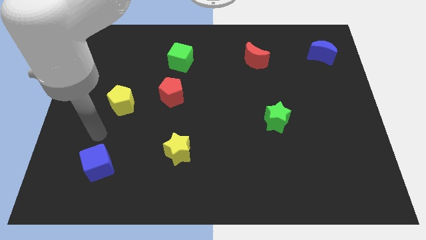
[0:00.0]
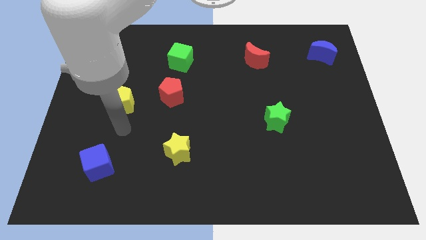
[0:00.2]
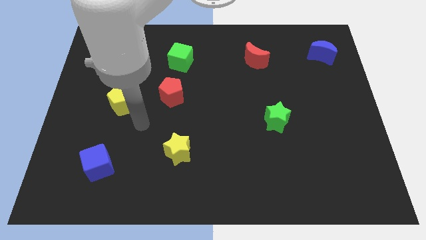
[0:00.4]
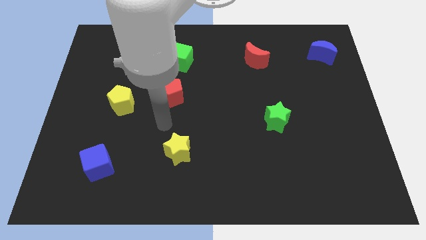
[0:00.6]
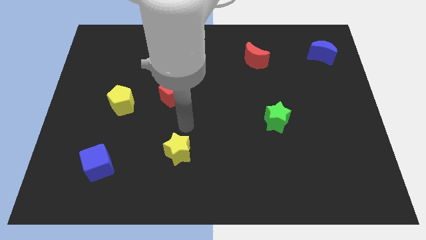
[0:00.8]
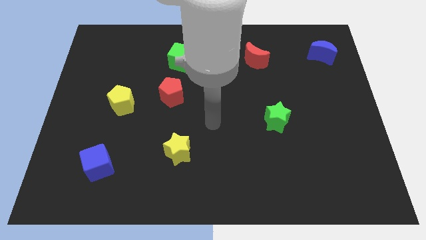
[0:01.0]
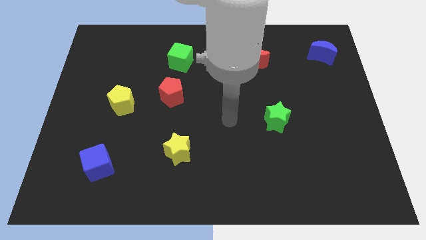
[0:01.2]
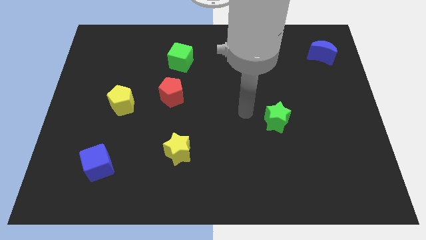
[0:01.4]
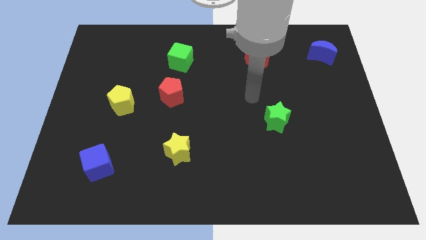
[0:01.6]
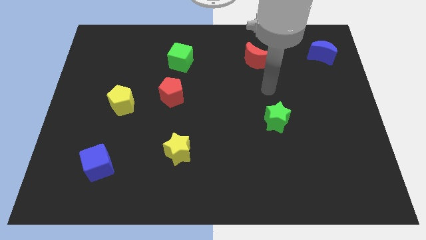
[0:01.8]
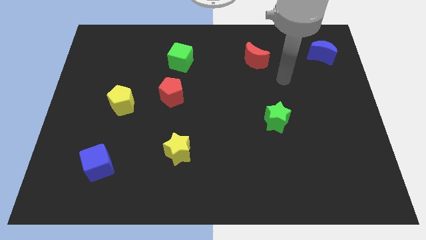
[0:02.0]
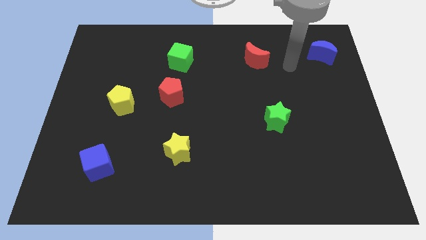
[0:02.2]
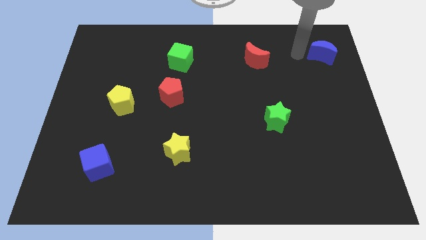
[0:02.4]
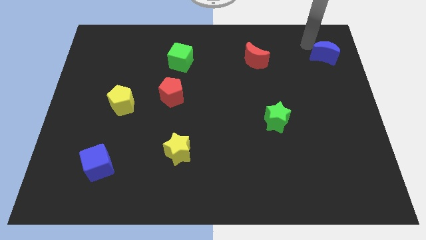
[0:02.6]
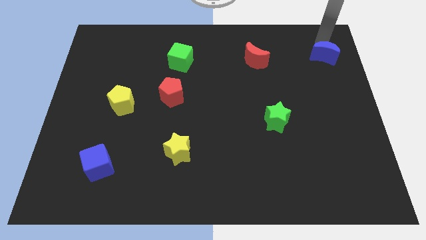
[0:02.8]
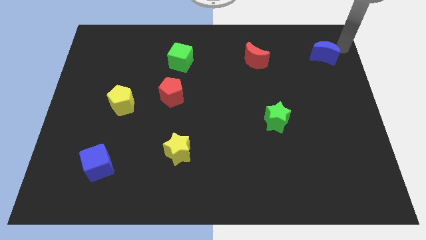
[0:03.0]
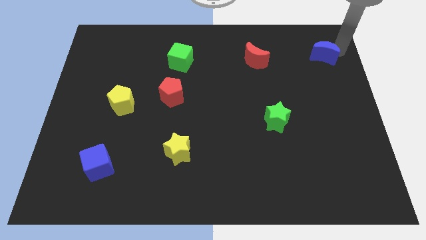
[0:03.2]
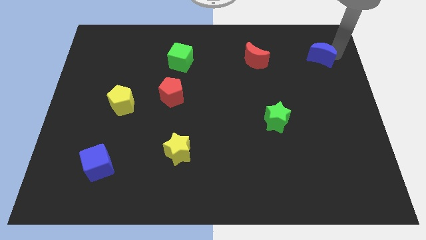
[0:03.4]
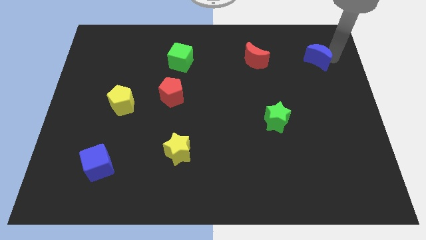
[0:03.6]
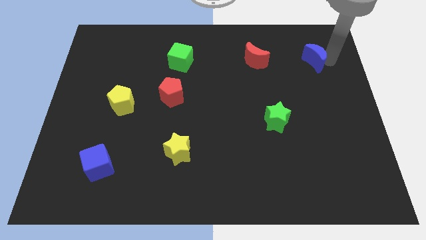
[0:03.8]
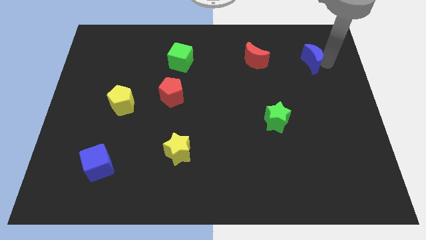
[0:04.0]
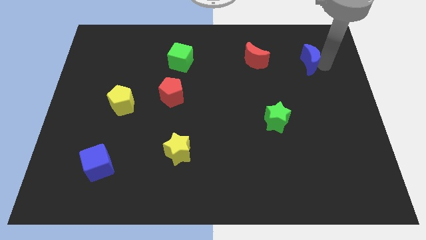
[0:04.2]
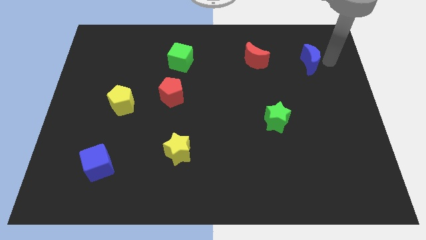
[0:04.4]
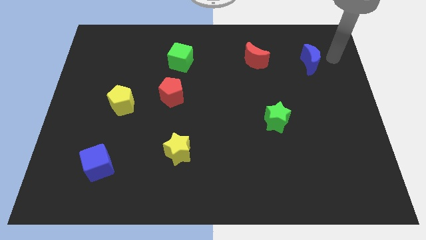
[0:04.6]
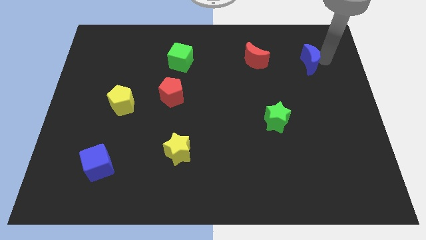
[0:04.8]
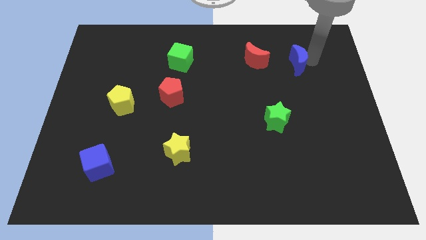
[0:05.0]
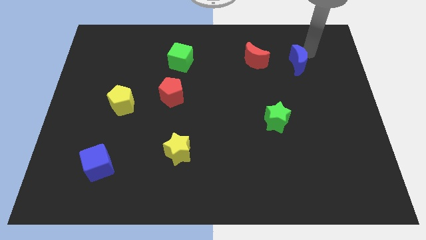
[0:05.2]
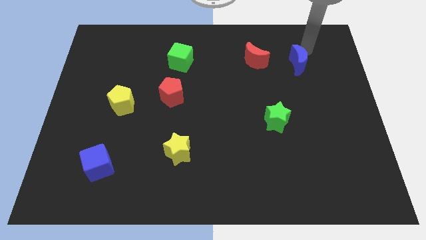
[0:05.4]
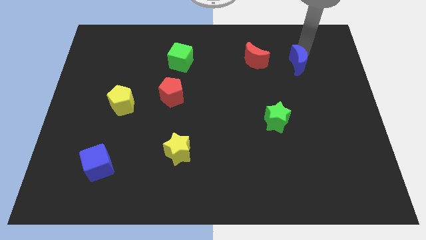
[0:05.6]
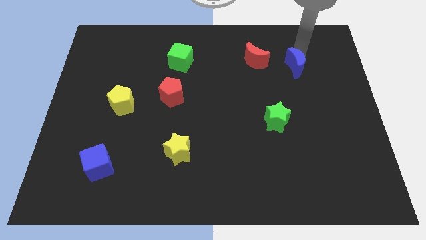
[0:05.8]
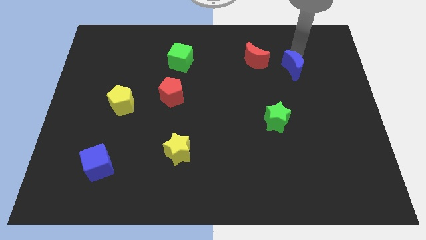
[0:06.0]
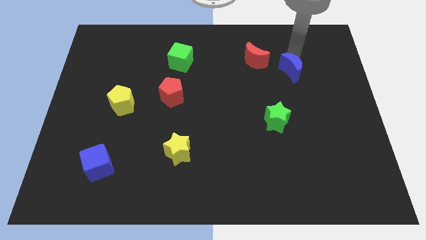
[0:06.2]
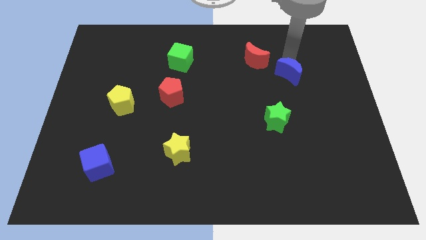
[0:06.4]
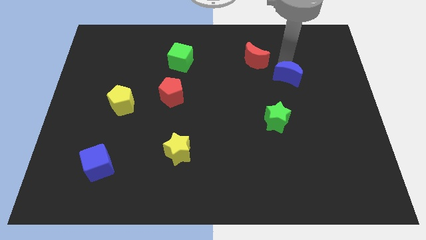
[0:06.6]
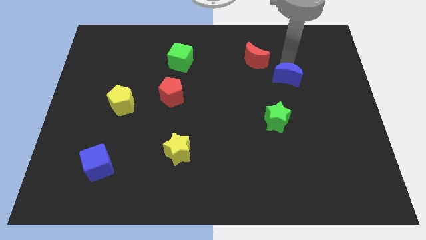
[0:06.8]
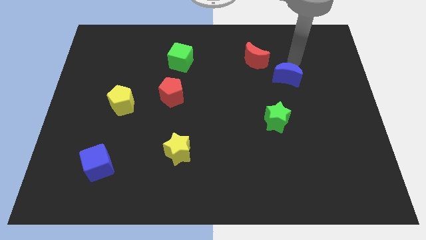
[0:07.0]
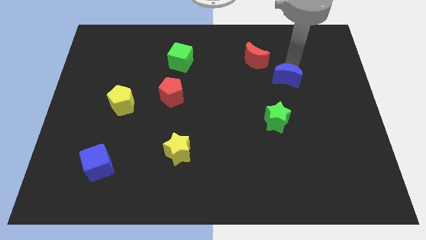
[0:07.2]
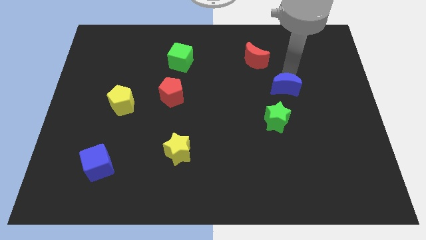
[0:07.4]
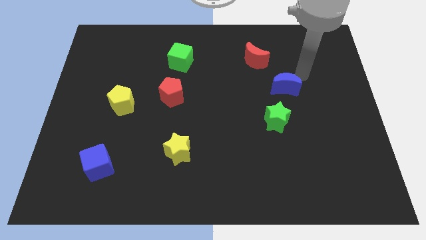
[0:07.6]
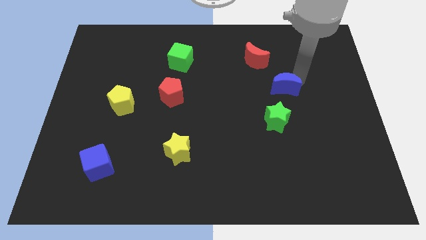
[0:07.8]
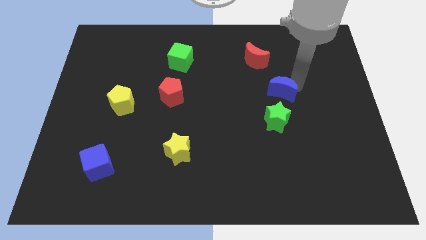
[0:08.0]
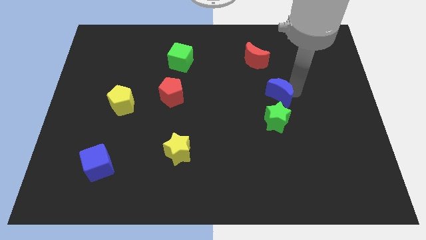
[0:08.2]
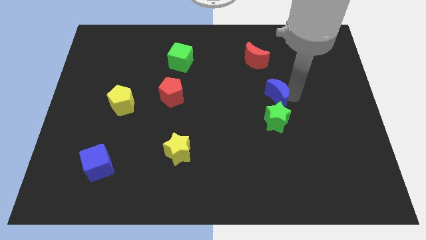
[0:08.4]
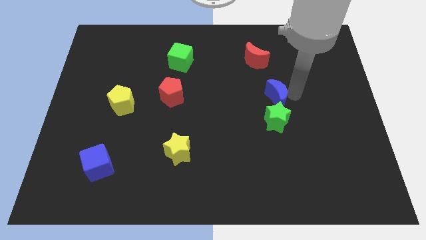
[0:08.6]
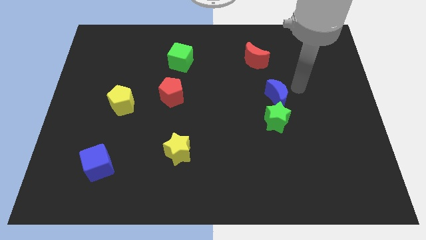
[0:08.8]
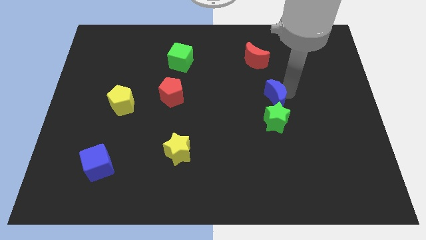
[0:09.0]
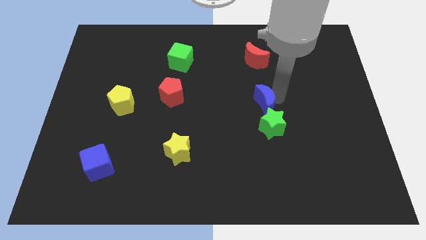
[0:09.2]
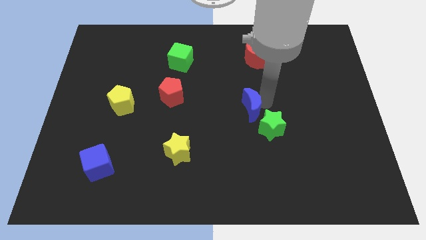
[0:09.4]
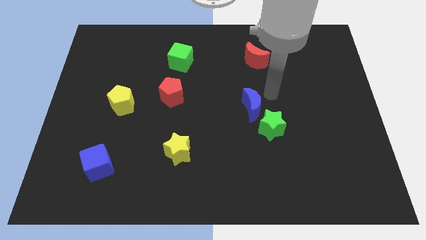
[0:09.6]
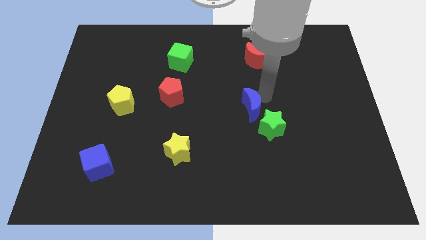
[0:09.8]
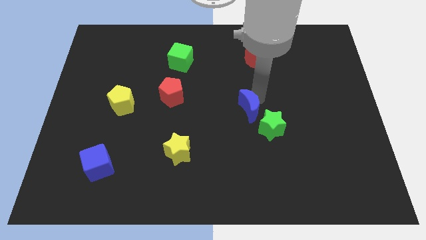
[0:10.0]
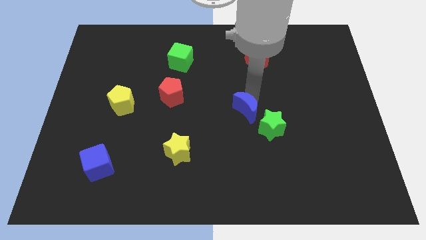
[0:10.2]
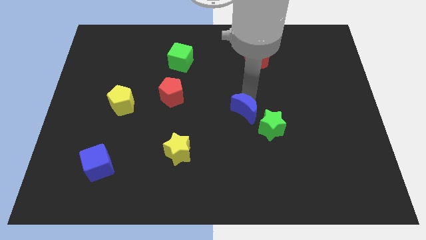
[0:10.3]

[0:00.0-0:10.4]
put the blue moon to the left side of the green star

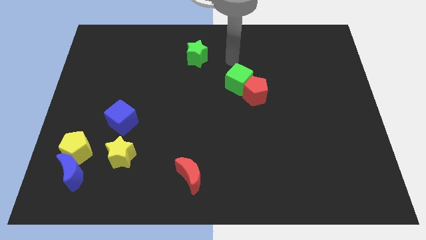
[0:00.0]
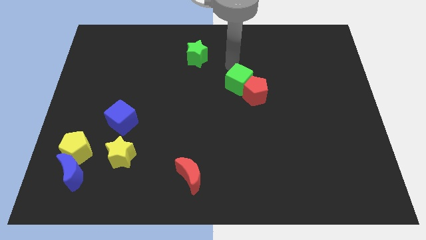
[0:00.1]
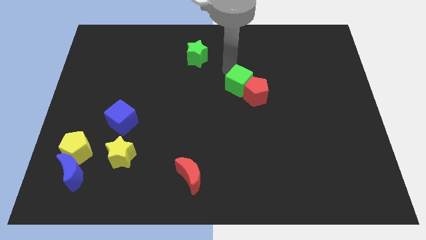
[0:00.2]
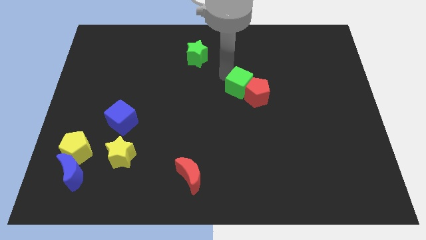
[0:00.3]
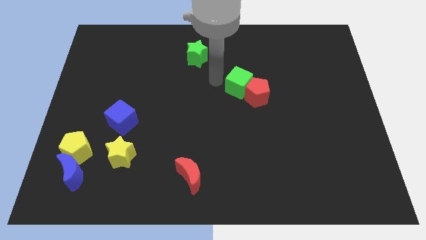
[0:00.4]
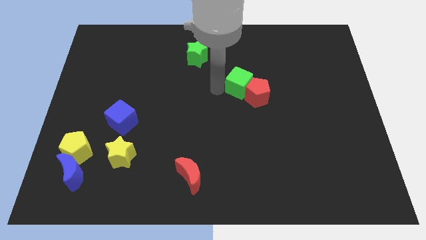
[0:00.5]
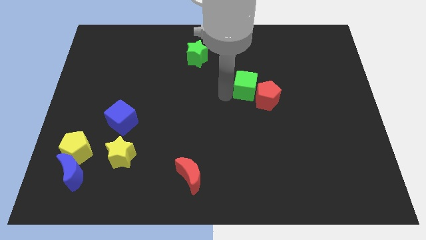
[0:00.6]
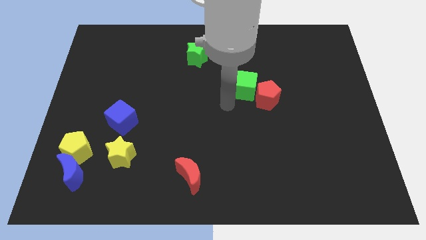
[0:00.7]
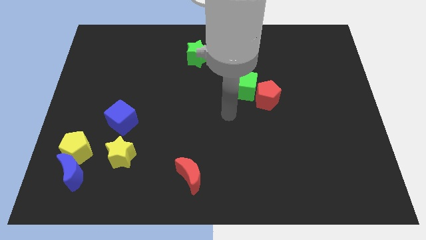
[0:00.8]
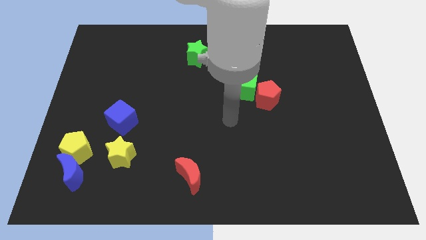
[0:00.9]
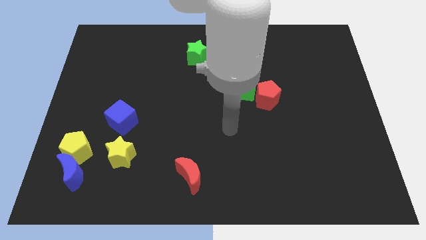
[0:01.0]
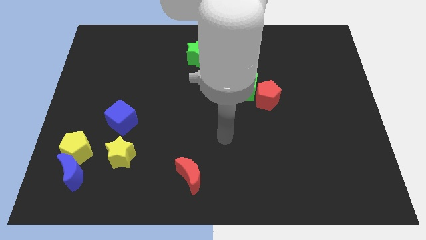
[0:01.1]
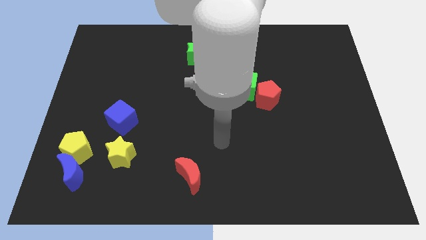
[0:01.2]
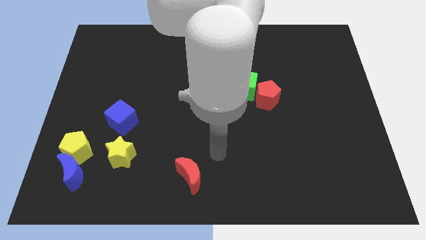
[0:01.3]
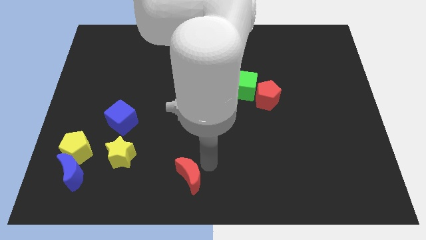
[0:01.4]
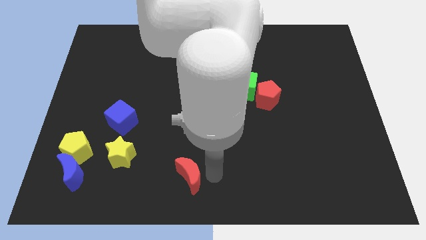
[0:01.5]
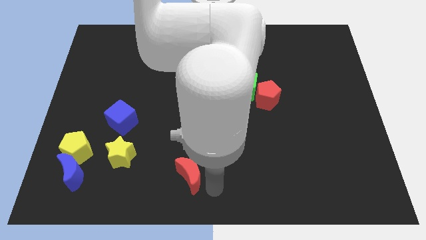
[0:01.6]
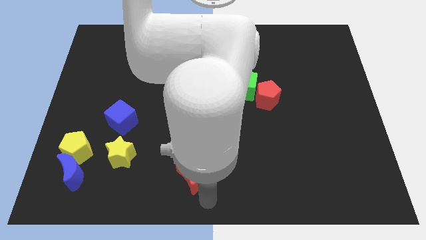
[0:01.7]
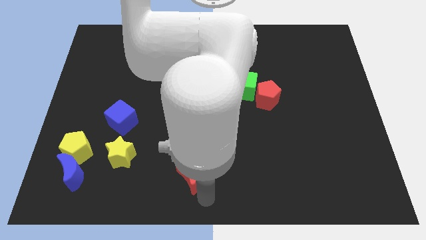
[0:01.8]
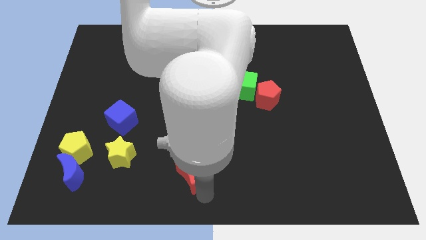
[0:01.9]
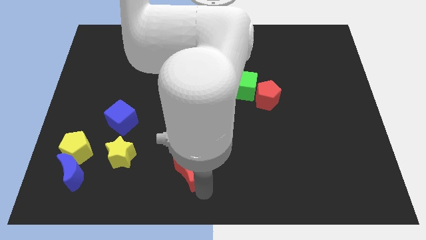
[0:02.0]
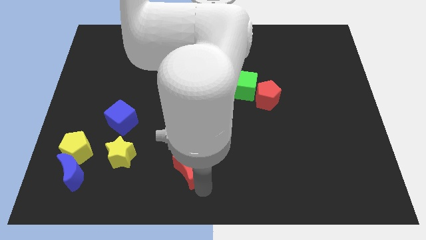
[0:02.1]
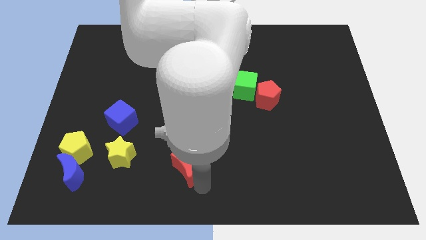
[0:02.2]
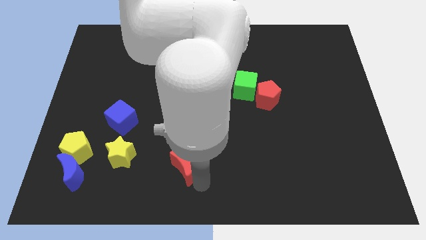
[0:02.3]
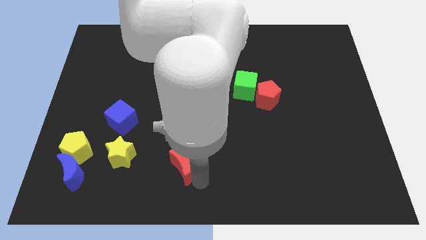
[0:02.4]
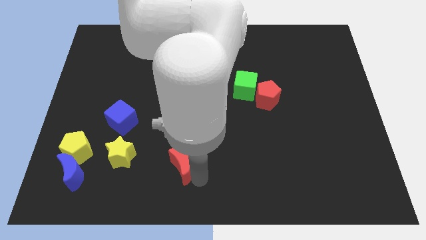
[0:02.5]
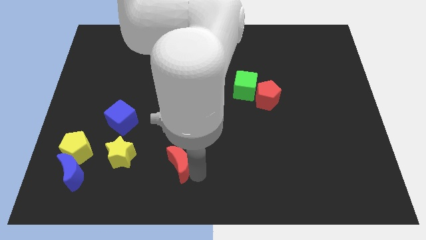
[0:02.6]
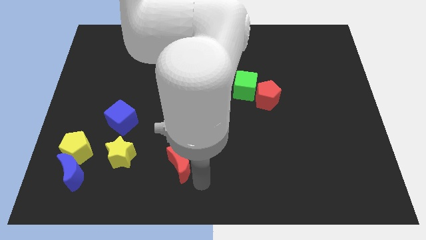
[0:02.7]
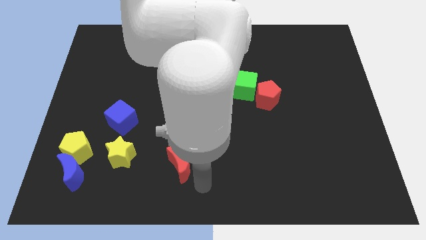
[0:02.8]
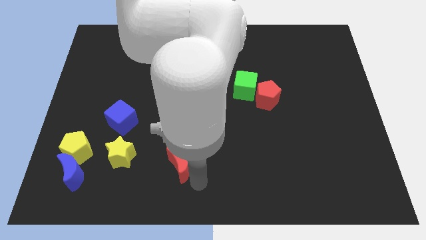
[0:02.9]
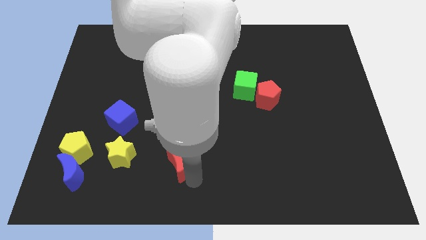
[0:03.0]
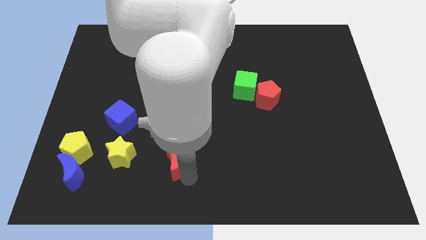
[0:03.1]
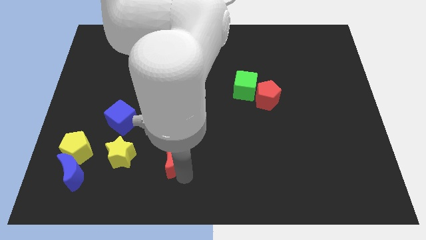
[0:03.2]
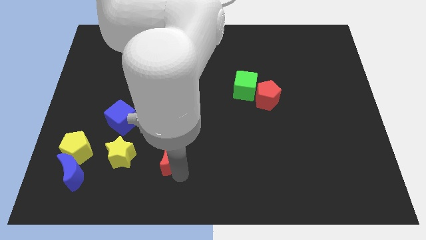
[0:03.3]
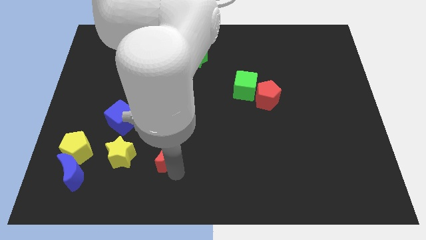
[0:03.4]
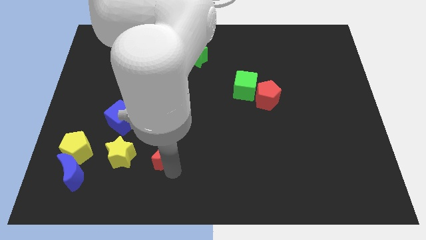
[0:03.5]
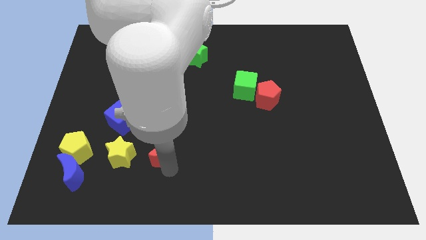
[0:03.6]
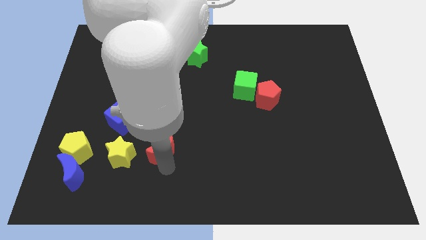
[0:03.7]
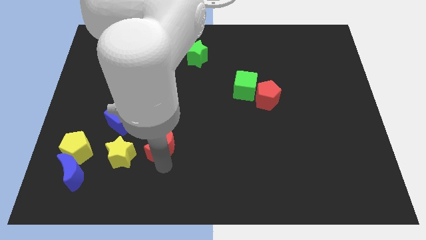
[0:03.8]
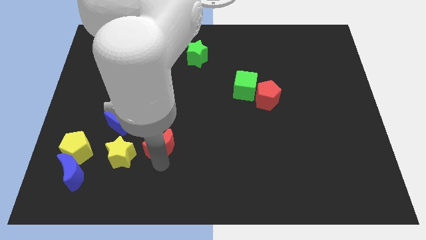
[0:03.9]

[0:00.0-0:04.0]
put the red moon to the top right of the yellow star
